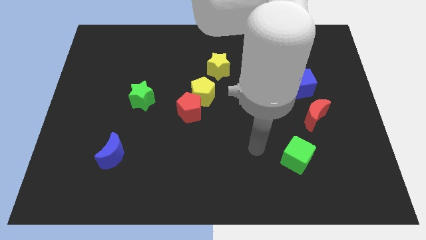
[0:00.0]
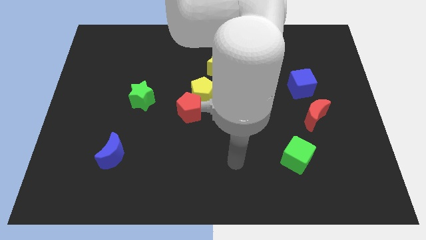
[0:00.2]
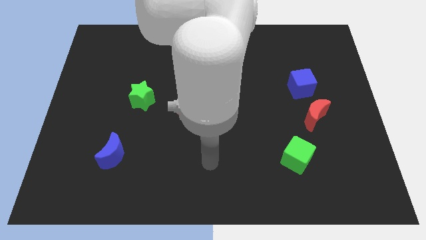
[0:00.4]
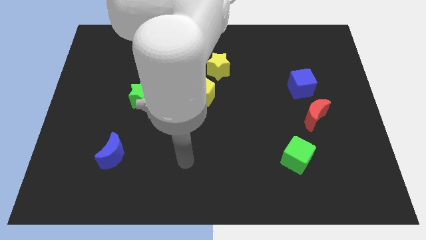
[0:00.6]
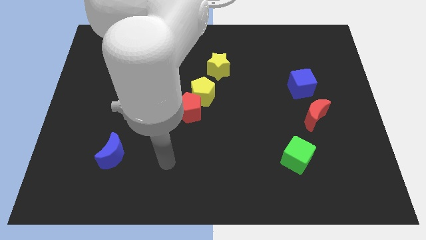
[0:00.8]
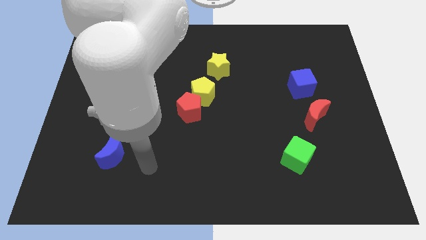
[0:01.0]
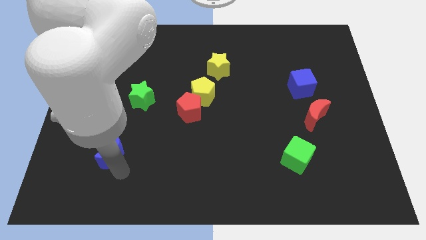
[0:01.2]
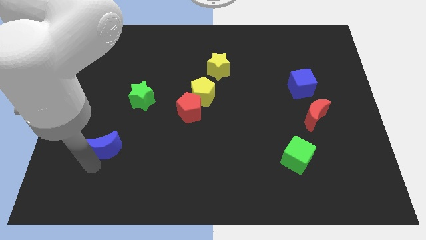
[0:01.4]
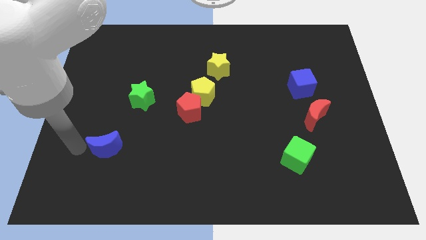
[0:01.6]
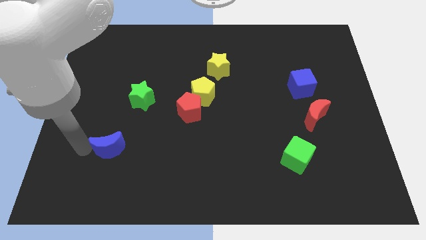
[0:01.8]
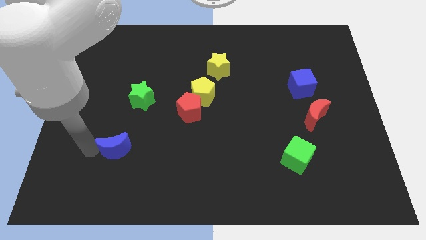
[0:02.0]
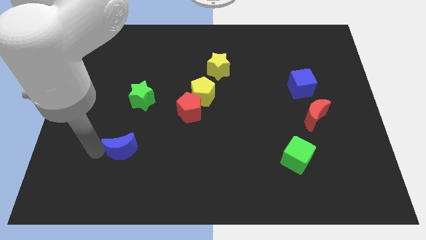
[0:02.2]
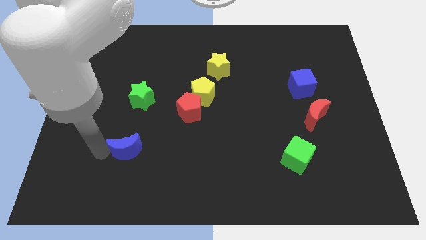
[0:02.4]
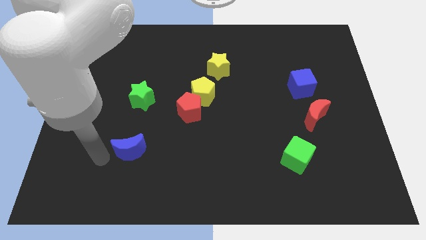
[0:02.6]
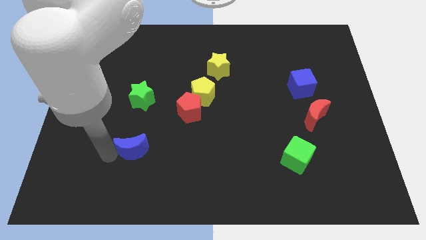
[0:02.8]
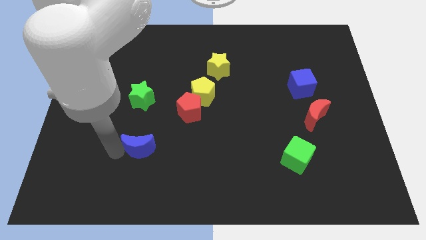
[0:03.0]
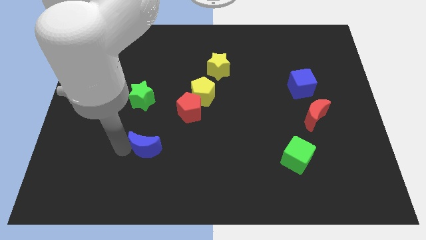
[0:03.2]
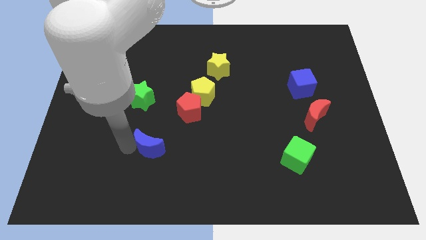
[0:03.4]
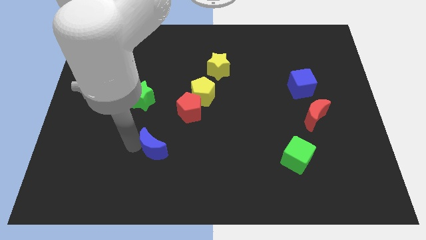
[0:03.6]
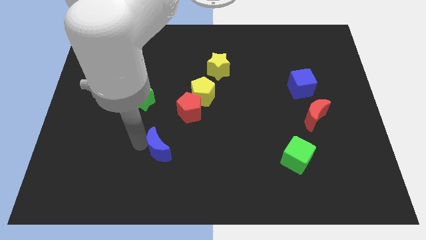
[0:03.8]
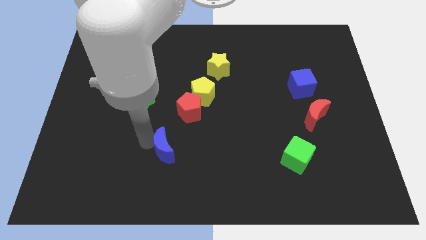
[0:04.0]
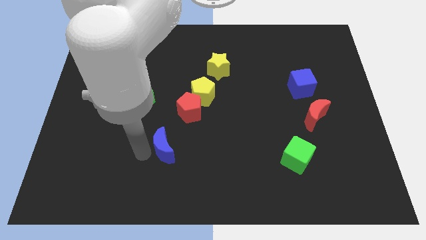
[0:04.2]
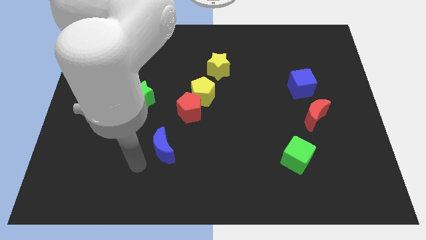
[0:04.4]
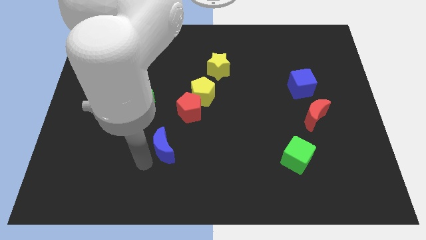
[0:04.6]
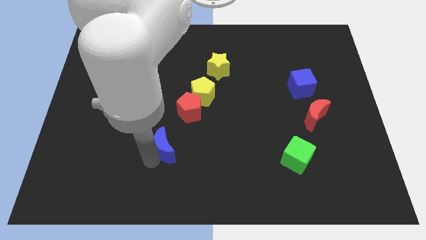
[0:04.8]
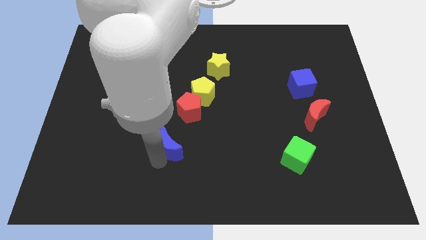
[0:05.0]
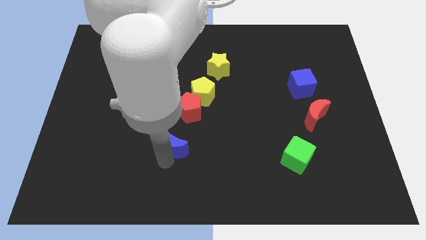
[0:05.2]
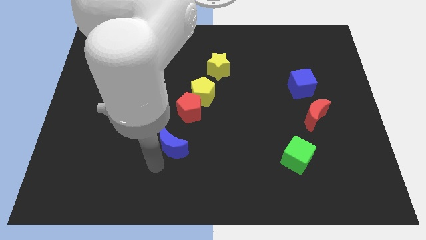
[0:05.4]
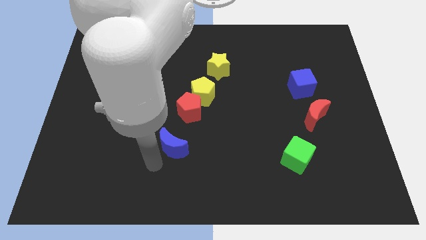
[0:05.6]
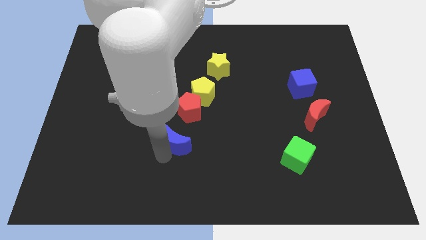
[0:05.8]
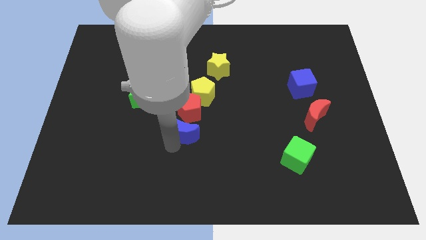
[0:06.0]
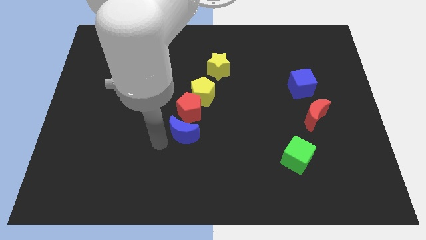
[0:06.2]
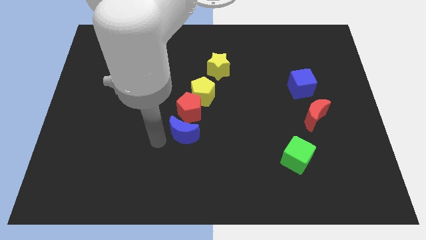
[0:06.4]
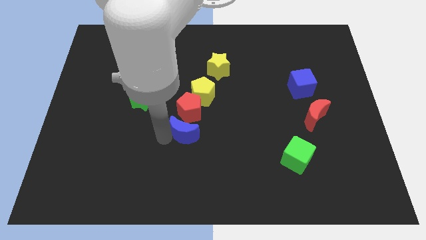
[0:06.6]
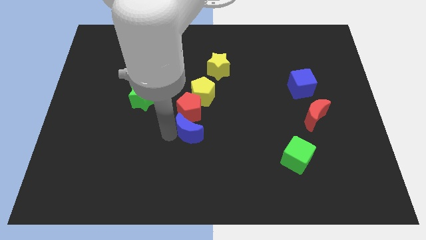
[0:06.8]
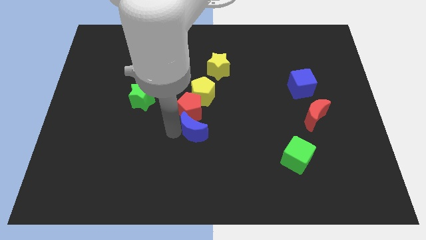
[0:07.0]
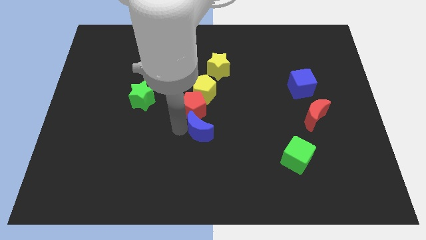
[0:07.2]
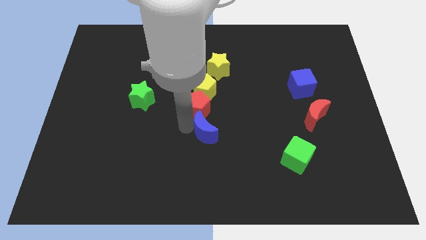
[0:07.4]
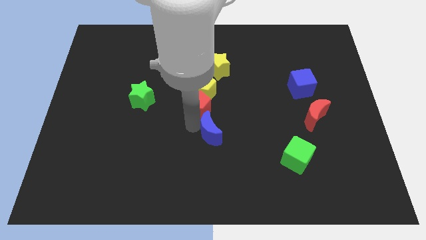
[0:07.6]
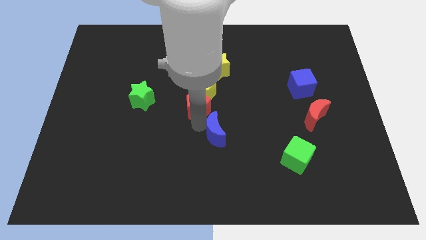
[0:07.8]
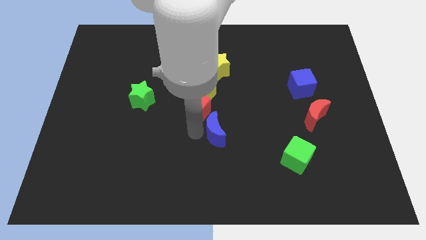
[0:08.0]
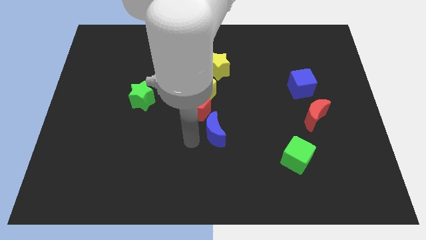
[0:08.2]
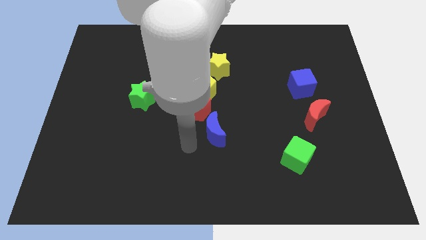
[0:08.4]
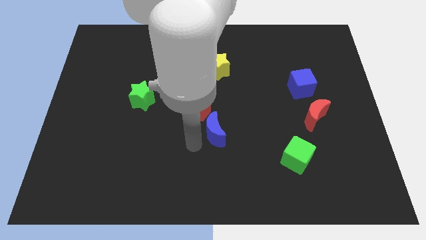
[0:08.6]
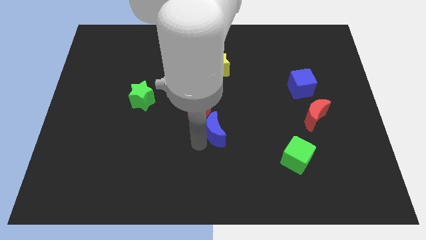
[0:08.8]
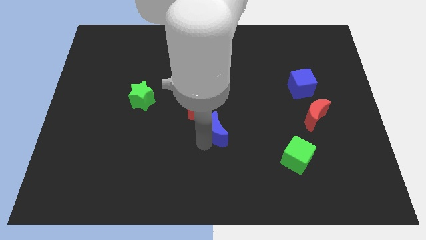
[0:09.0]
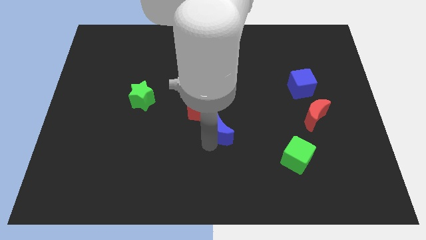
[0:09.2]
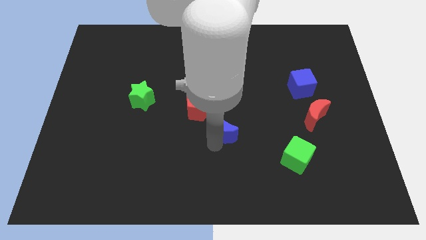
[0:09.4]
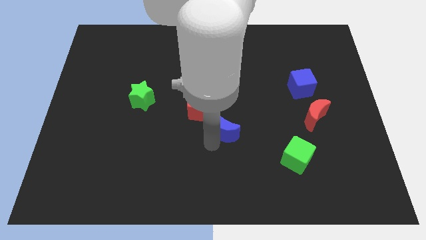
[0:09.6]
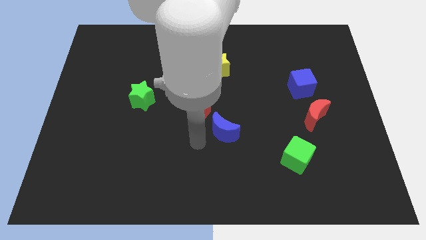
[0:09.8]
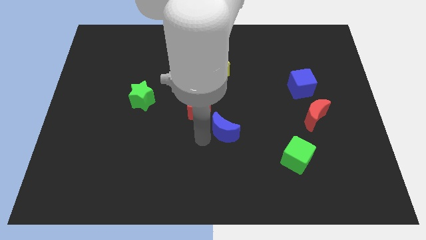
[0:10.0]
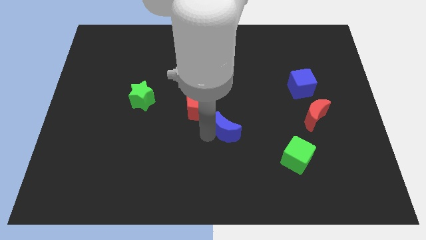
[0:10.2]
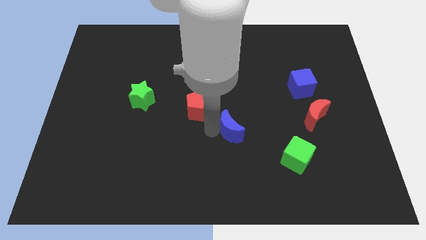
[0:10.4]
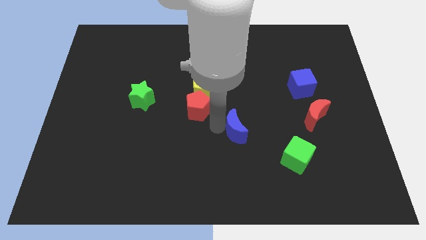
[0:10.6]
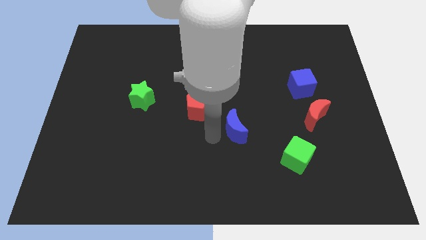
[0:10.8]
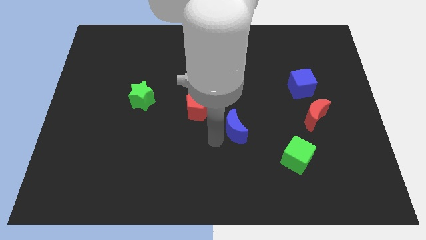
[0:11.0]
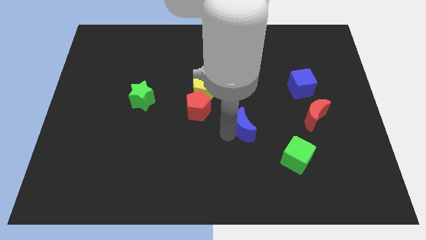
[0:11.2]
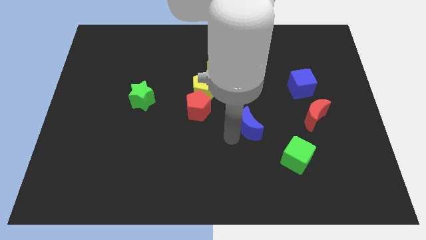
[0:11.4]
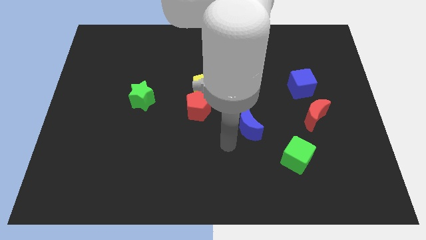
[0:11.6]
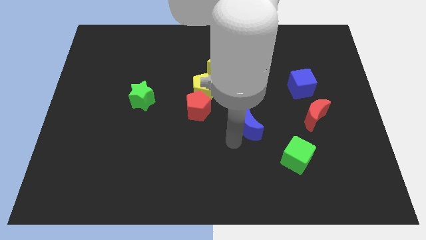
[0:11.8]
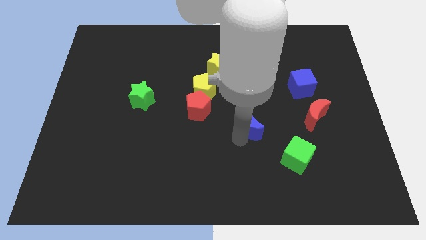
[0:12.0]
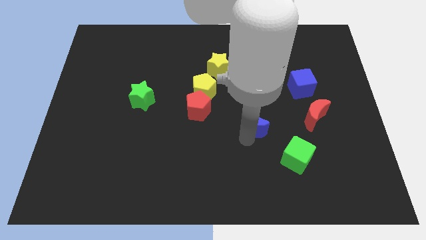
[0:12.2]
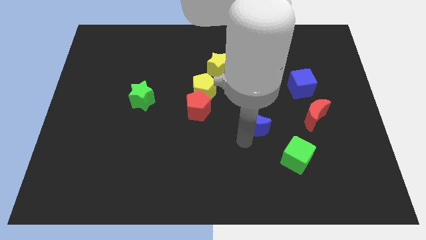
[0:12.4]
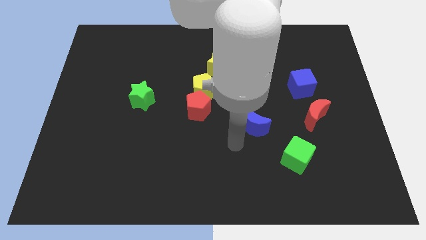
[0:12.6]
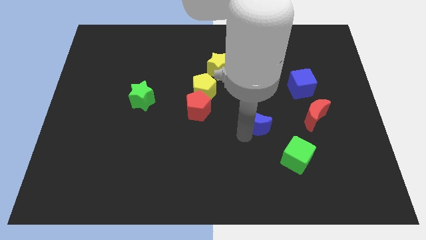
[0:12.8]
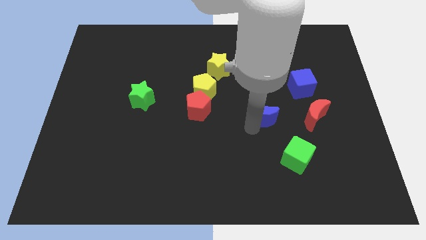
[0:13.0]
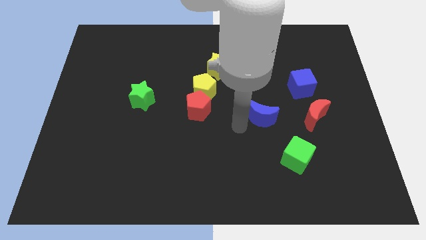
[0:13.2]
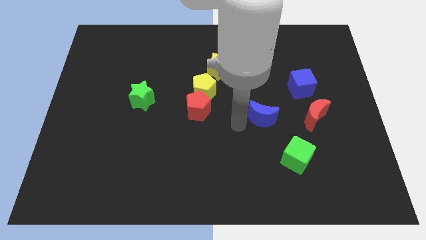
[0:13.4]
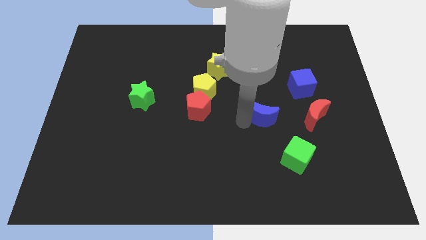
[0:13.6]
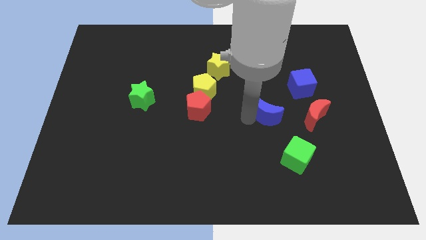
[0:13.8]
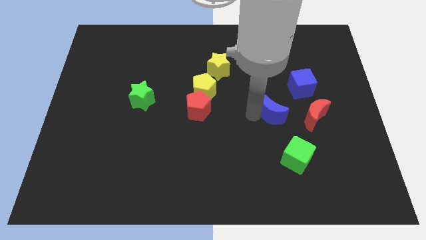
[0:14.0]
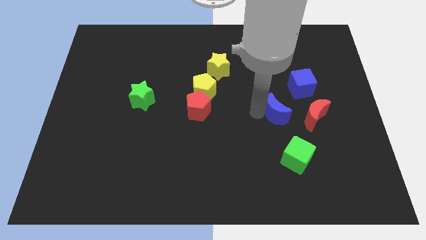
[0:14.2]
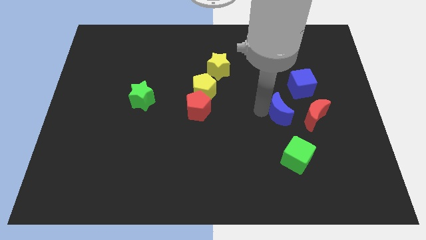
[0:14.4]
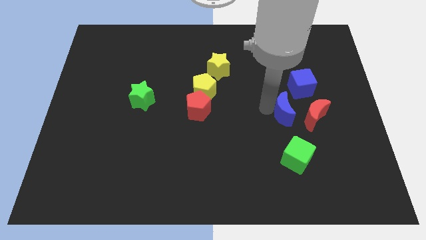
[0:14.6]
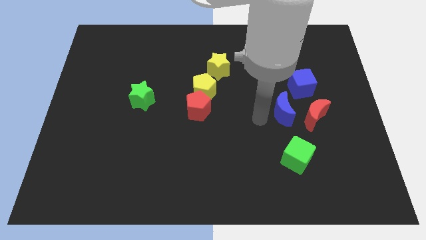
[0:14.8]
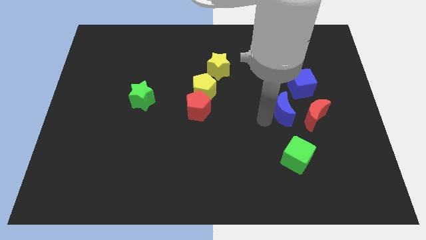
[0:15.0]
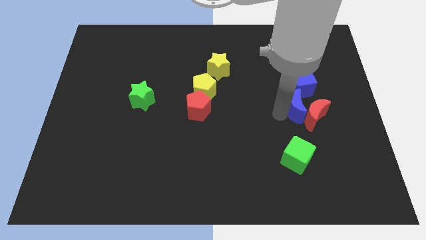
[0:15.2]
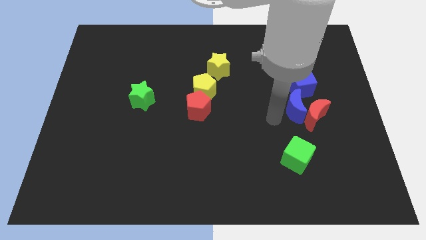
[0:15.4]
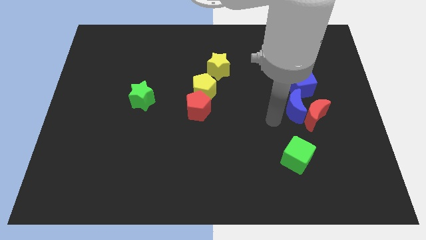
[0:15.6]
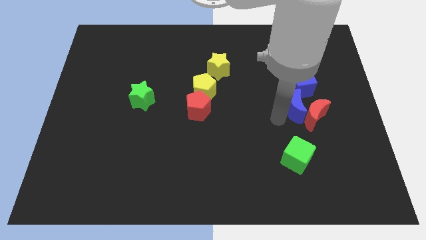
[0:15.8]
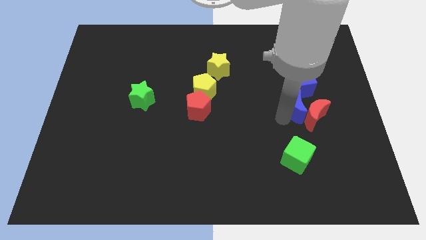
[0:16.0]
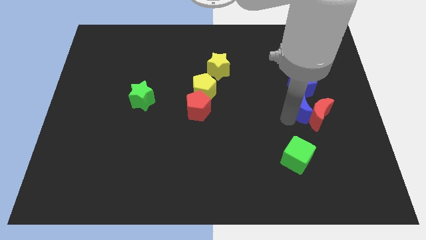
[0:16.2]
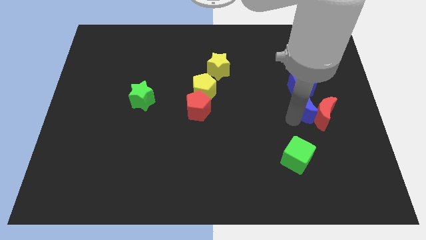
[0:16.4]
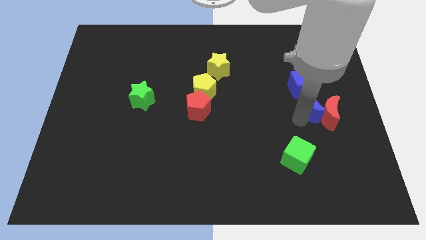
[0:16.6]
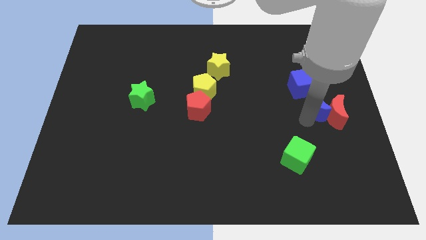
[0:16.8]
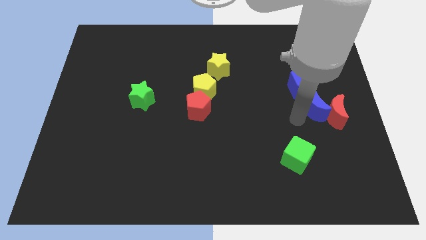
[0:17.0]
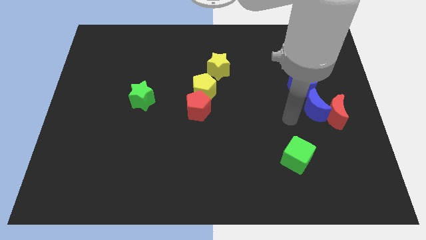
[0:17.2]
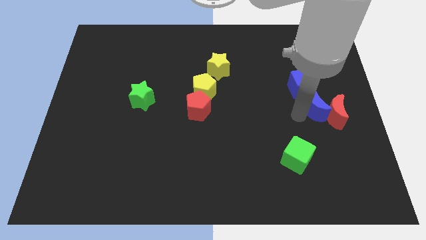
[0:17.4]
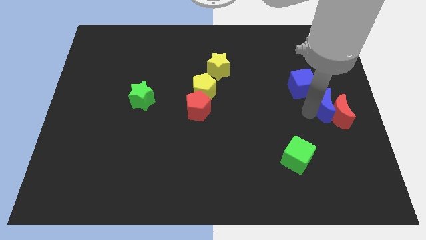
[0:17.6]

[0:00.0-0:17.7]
put the blue moon to the center right
